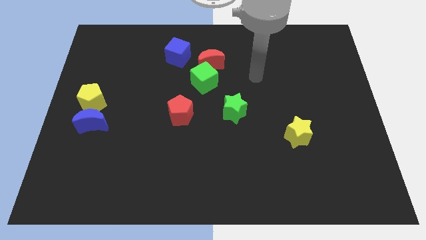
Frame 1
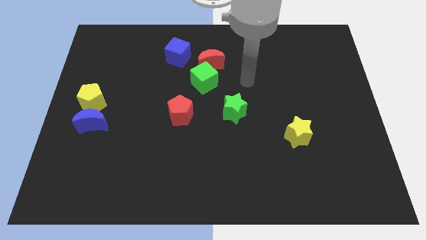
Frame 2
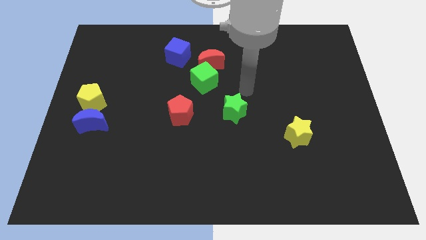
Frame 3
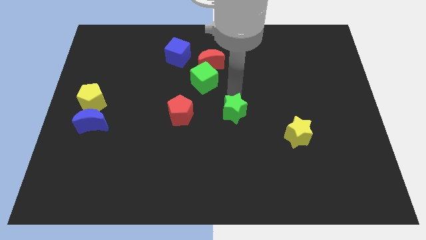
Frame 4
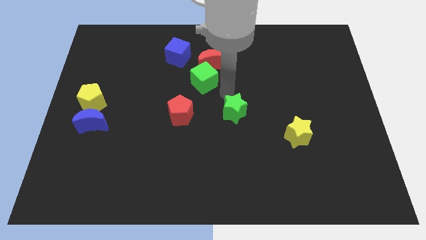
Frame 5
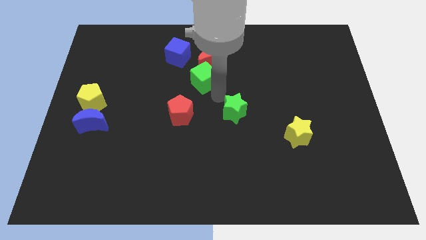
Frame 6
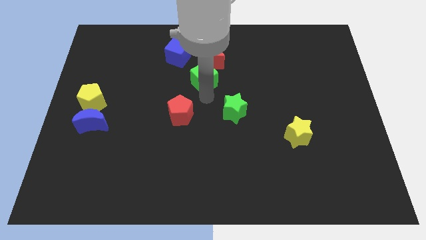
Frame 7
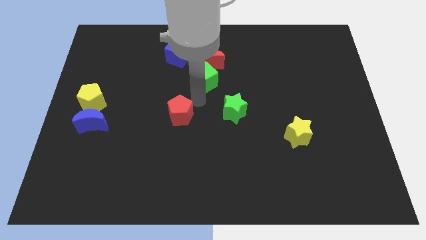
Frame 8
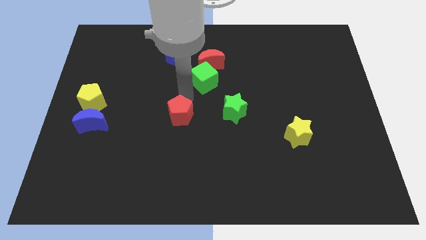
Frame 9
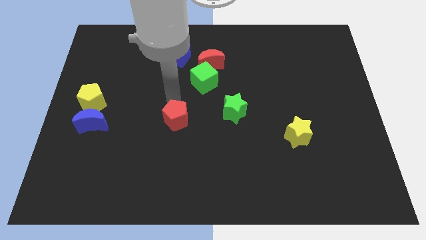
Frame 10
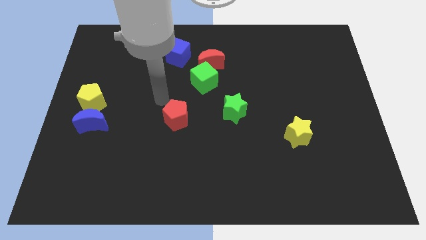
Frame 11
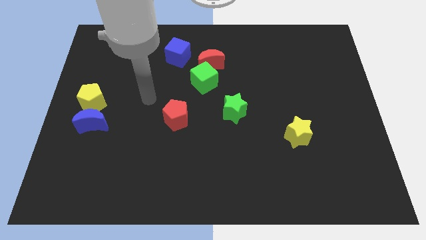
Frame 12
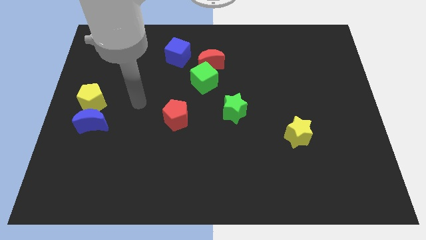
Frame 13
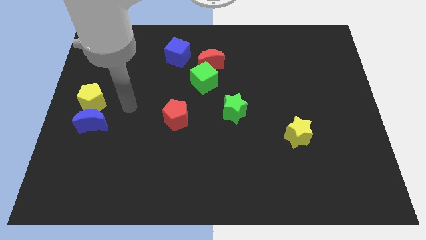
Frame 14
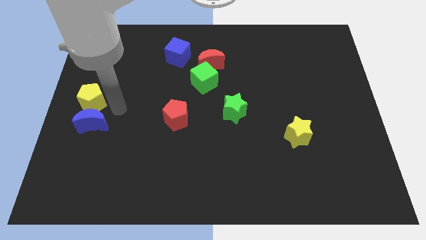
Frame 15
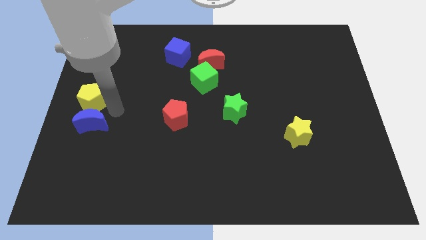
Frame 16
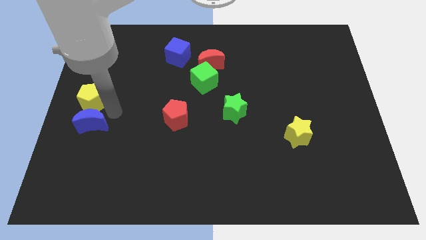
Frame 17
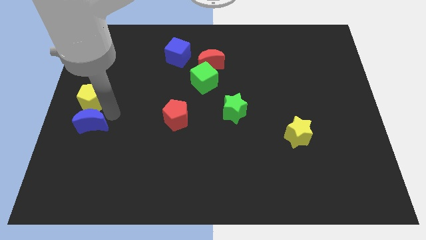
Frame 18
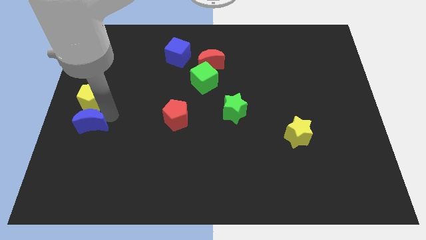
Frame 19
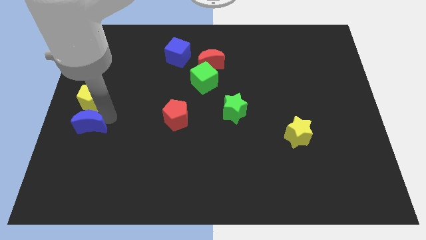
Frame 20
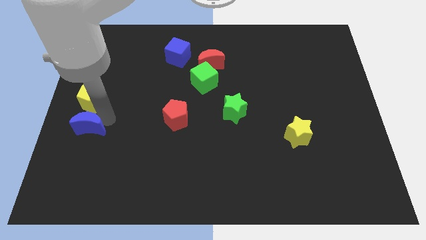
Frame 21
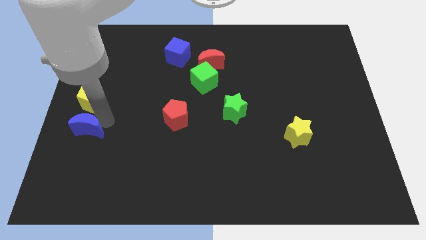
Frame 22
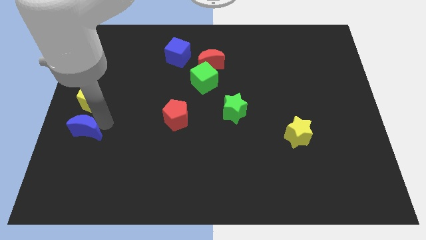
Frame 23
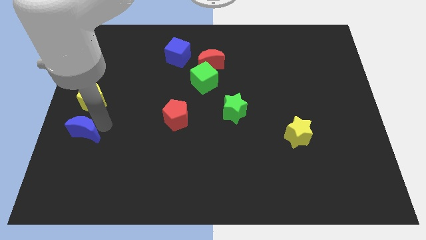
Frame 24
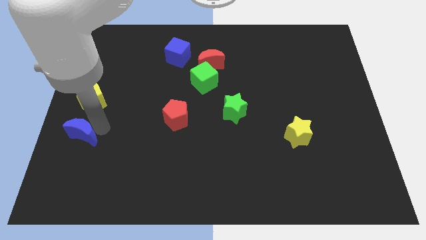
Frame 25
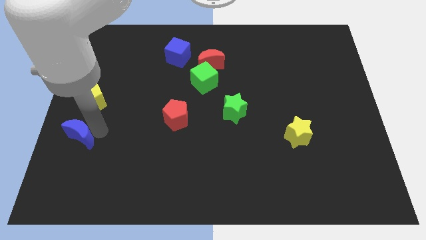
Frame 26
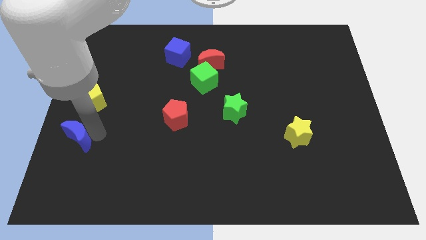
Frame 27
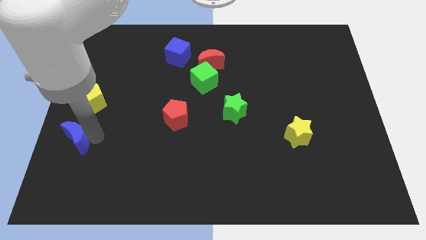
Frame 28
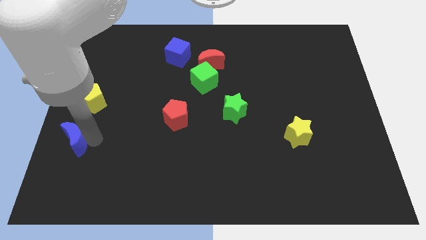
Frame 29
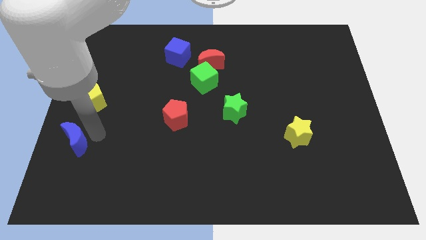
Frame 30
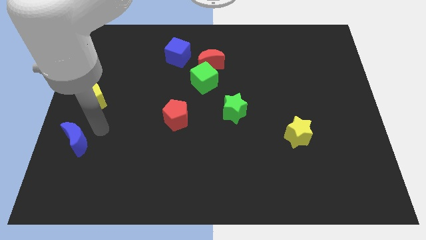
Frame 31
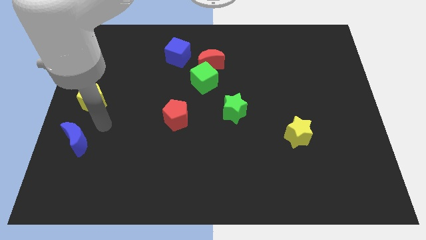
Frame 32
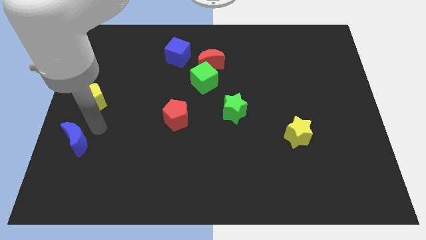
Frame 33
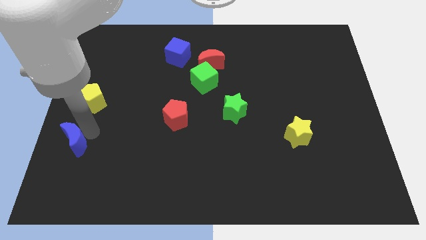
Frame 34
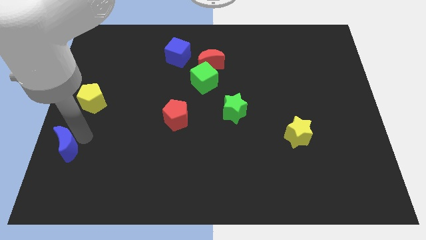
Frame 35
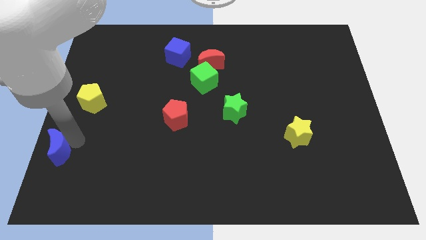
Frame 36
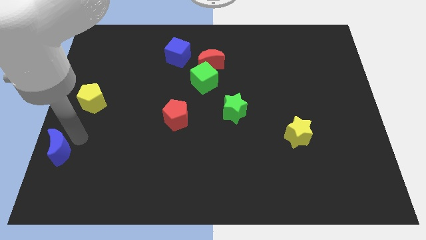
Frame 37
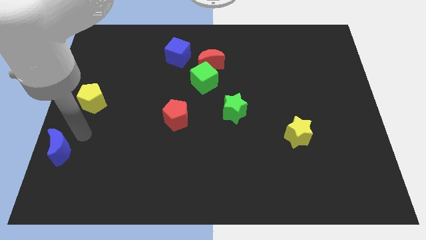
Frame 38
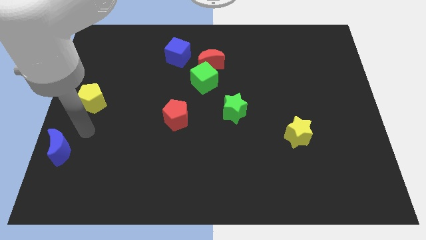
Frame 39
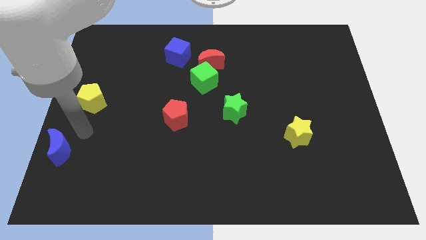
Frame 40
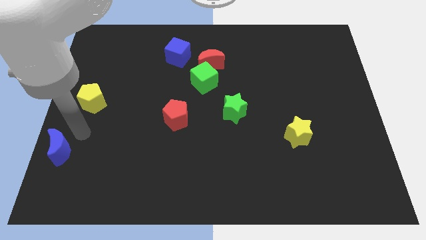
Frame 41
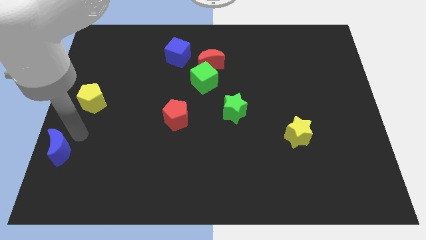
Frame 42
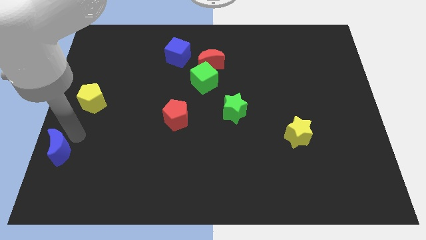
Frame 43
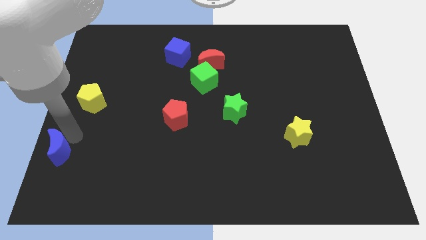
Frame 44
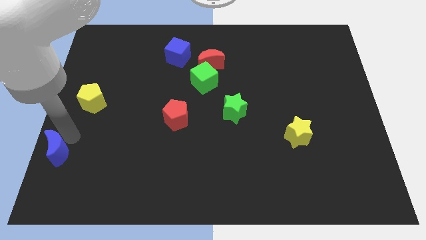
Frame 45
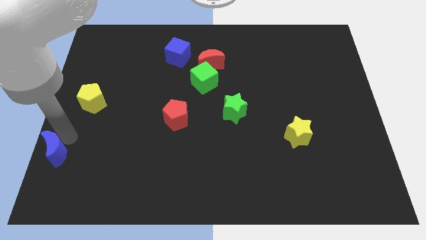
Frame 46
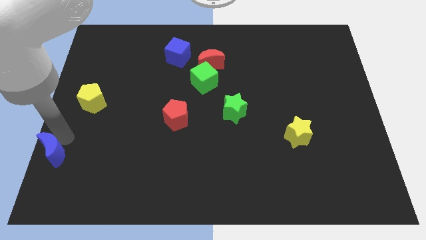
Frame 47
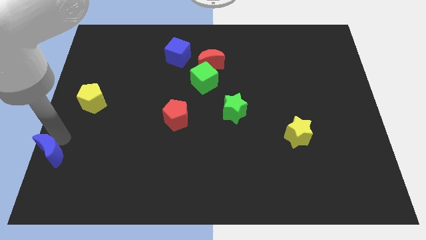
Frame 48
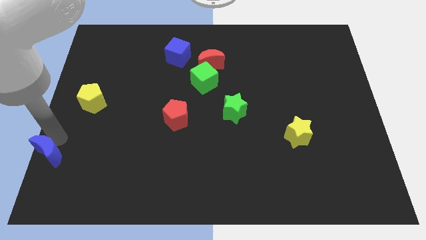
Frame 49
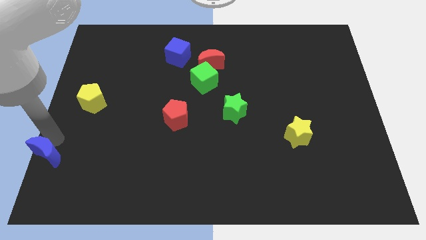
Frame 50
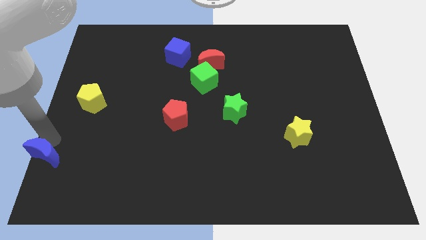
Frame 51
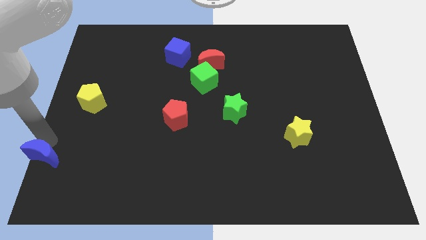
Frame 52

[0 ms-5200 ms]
put the blue moon to the bottom left

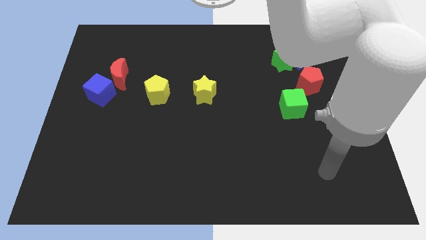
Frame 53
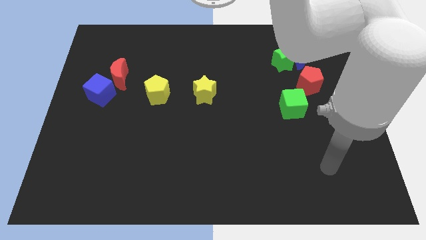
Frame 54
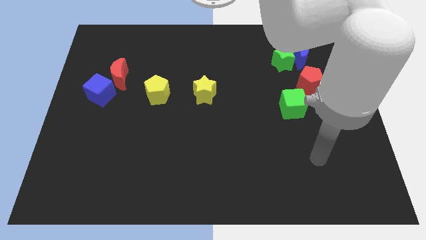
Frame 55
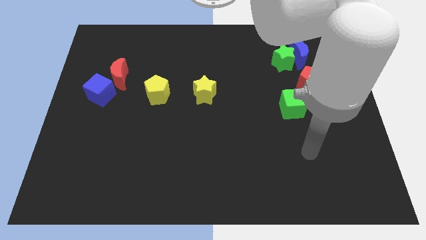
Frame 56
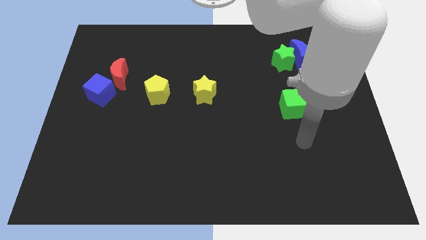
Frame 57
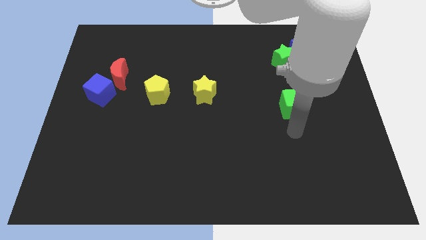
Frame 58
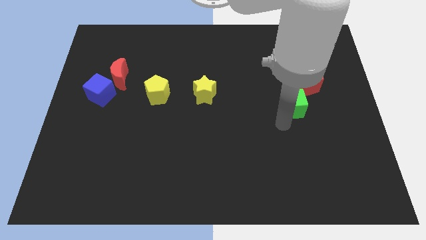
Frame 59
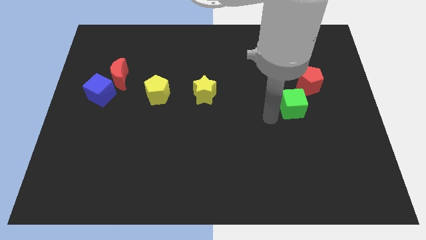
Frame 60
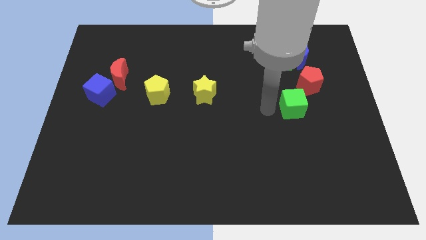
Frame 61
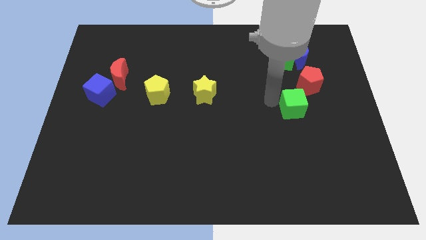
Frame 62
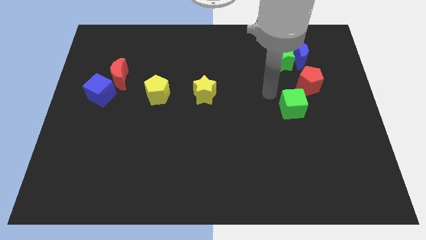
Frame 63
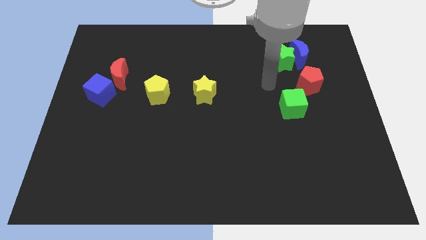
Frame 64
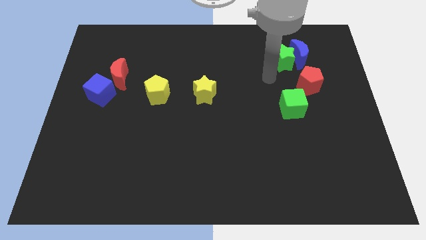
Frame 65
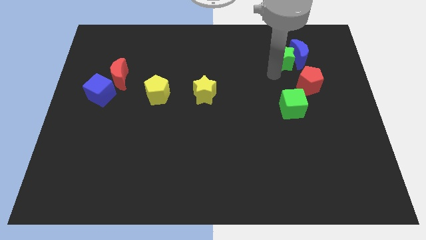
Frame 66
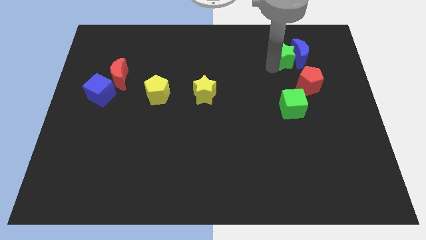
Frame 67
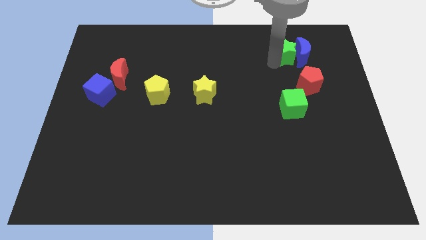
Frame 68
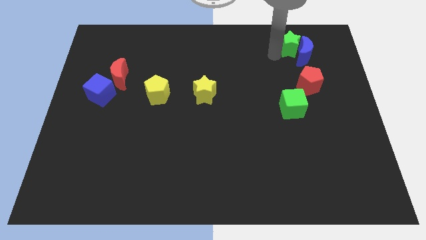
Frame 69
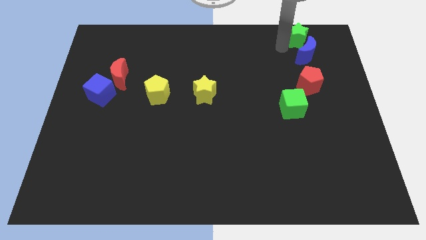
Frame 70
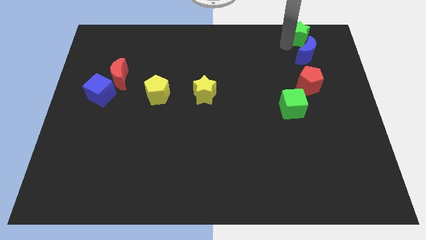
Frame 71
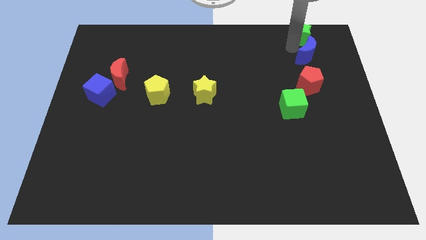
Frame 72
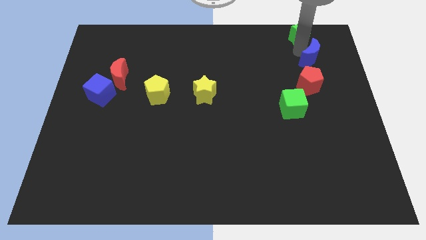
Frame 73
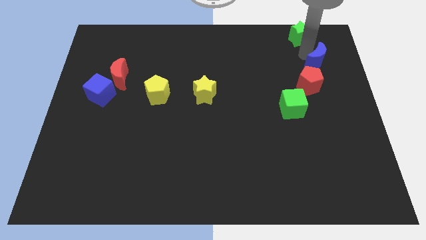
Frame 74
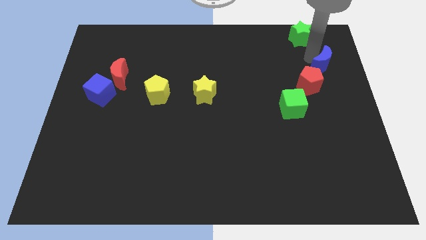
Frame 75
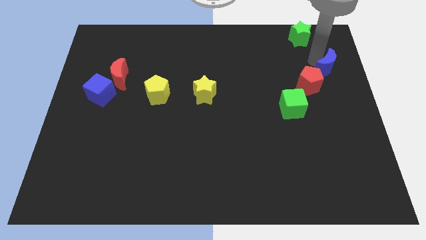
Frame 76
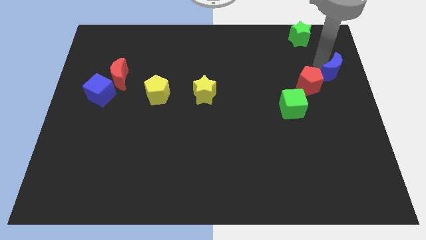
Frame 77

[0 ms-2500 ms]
put the blue moon to the right side
